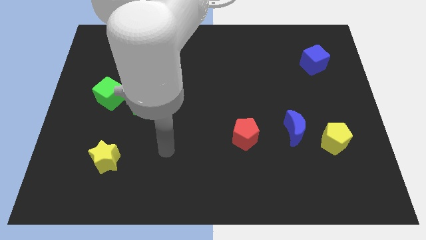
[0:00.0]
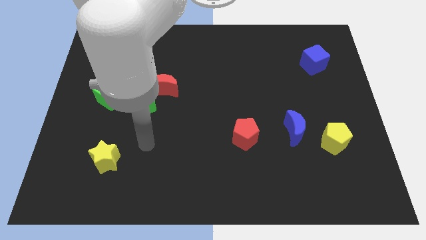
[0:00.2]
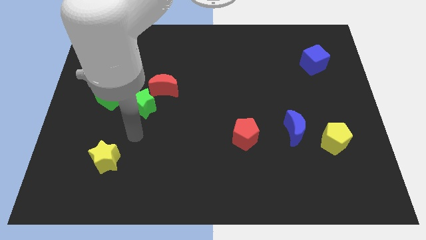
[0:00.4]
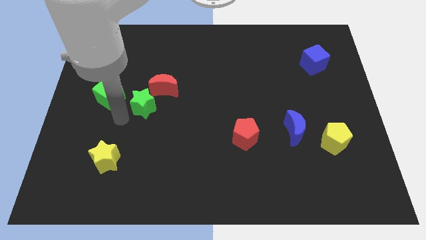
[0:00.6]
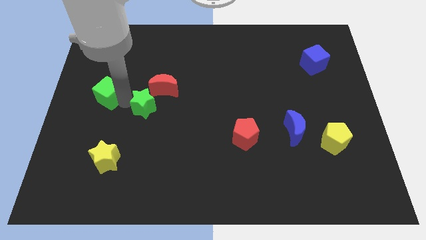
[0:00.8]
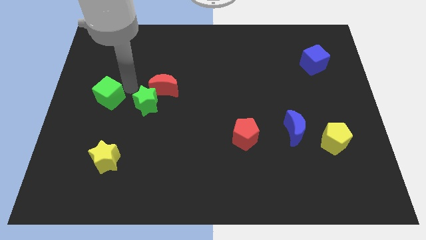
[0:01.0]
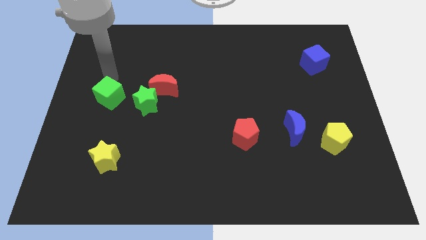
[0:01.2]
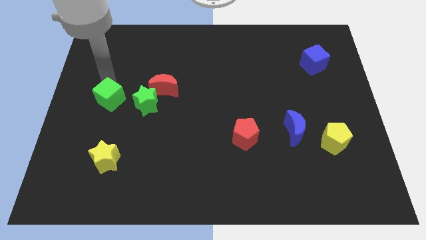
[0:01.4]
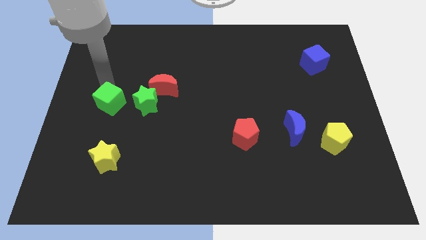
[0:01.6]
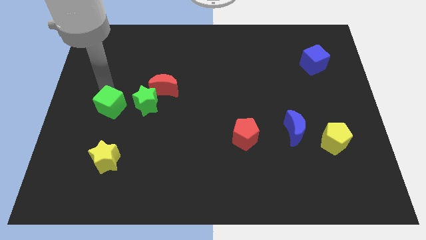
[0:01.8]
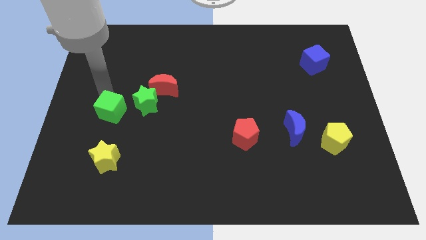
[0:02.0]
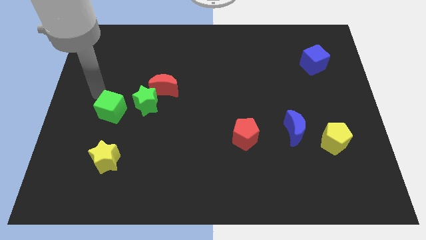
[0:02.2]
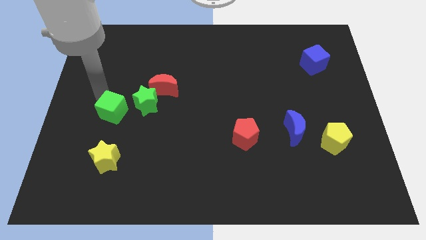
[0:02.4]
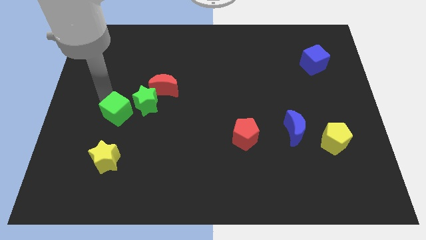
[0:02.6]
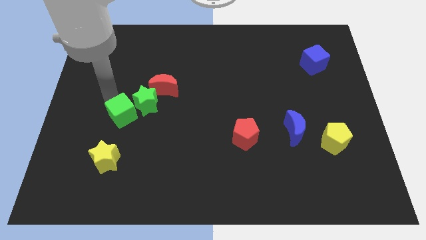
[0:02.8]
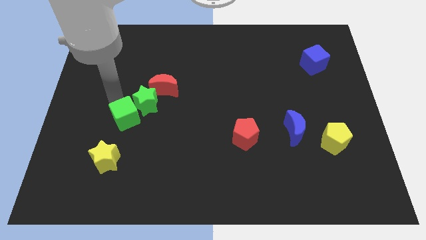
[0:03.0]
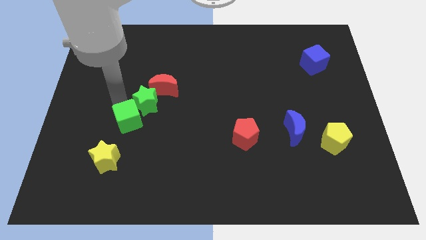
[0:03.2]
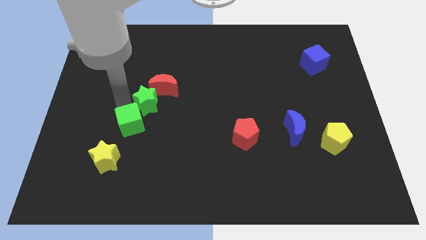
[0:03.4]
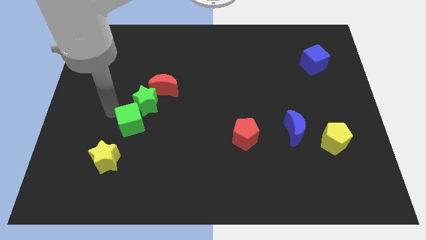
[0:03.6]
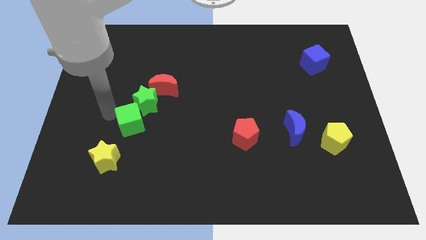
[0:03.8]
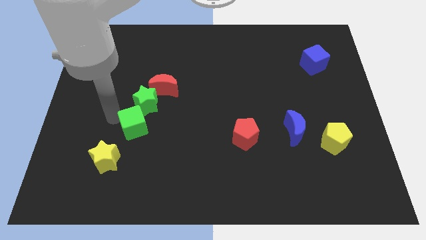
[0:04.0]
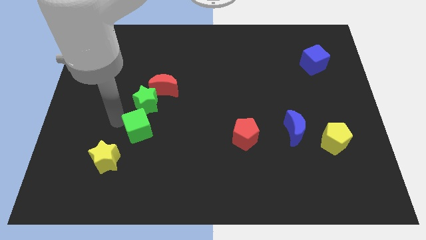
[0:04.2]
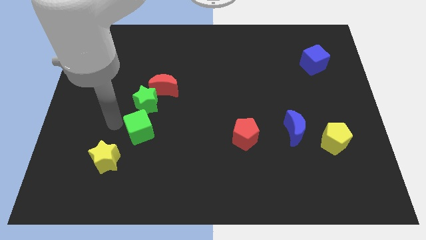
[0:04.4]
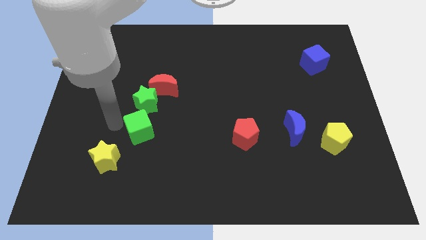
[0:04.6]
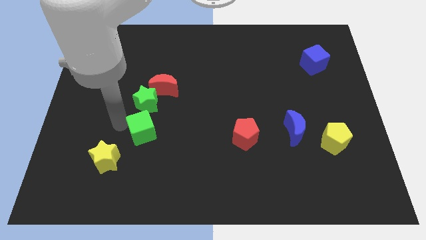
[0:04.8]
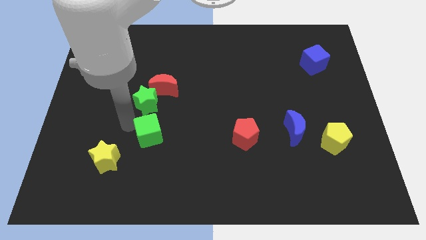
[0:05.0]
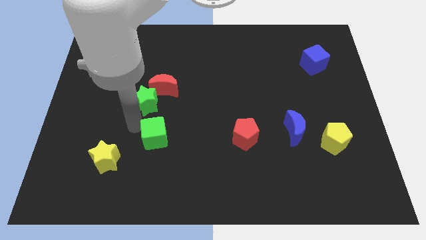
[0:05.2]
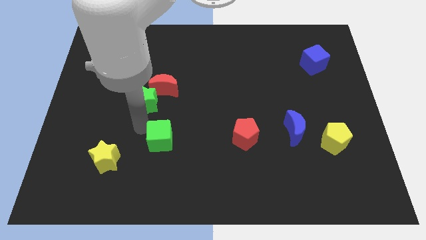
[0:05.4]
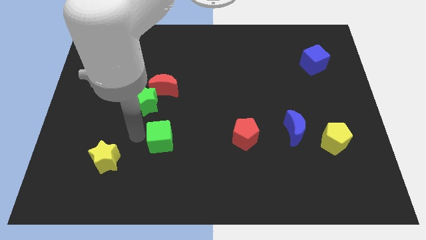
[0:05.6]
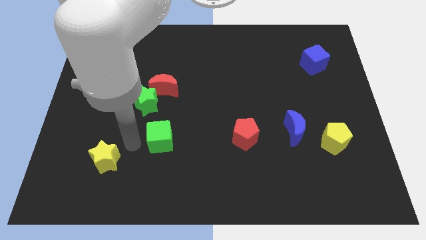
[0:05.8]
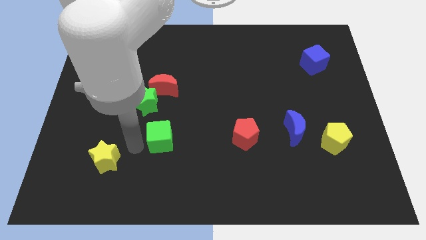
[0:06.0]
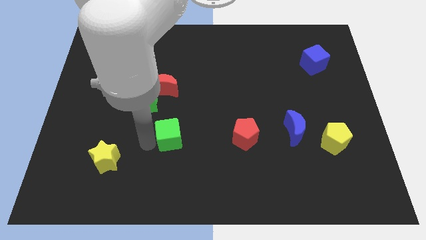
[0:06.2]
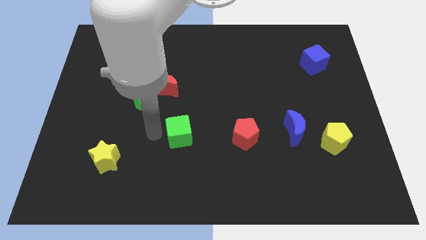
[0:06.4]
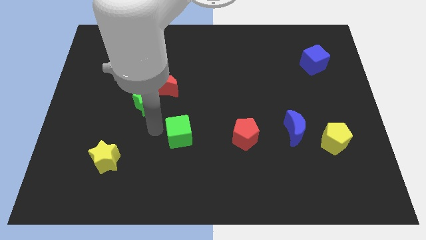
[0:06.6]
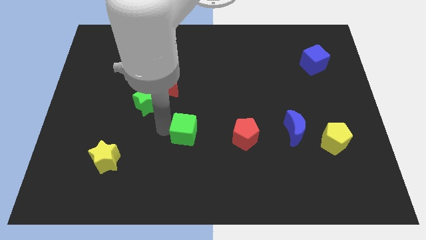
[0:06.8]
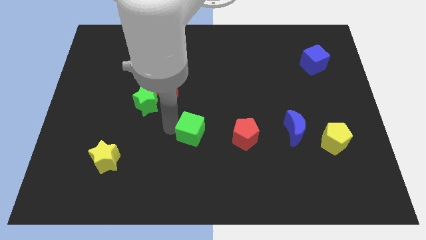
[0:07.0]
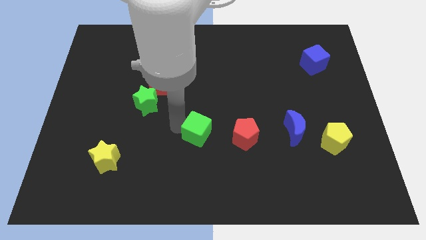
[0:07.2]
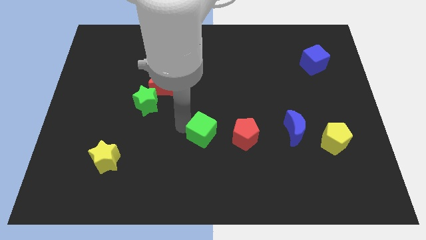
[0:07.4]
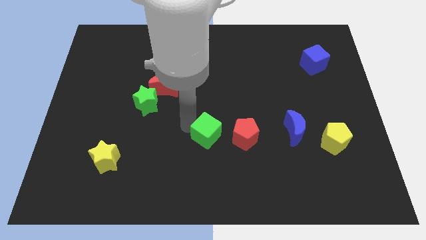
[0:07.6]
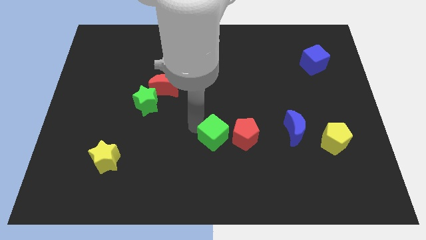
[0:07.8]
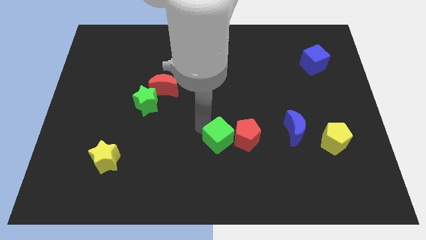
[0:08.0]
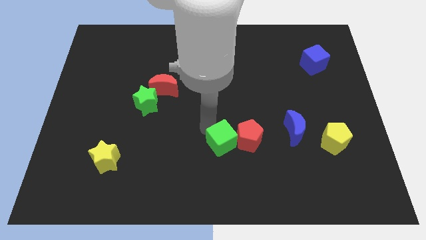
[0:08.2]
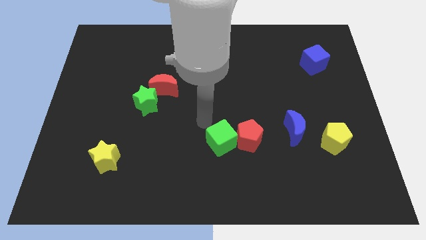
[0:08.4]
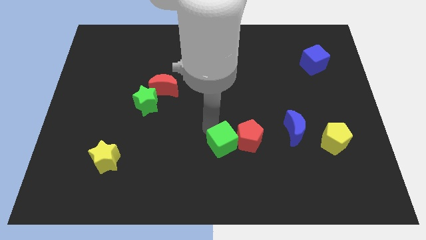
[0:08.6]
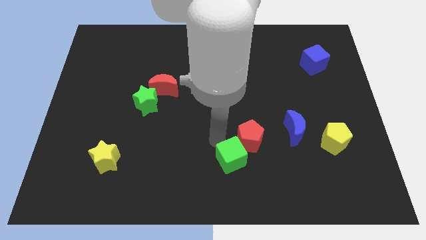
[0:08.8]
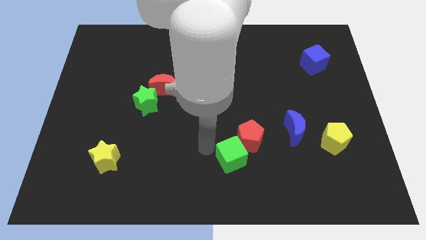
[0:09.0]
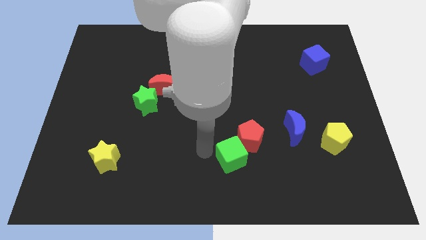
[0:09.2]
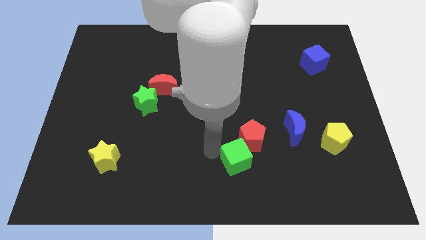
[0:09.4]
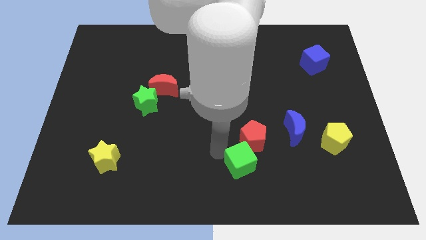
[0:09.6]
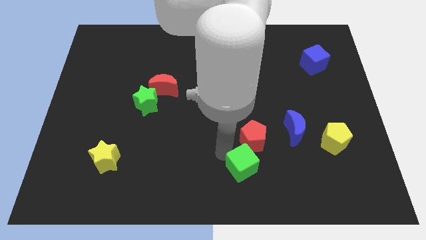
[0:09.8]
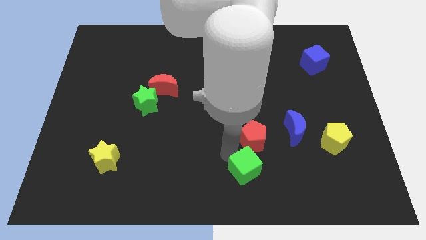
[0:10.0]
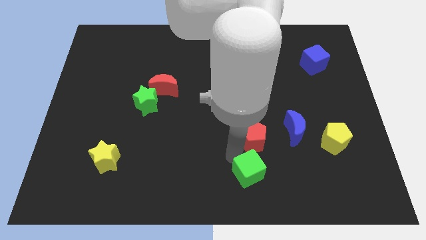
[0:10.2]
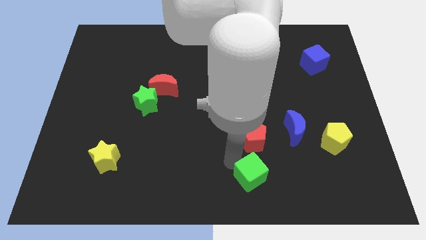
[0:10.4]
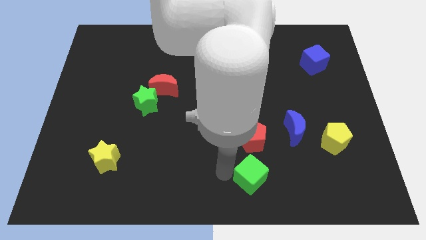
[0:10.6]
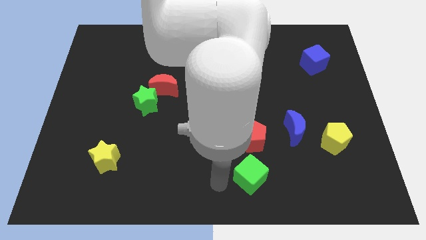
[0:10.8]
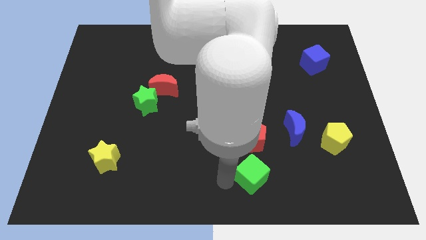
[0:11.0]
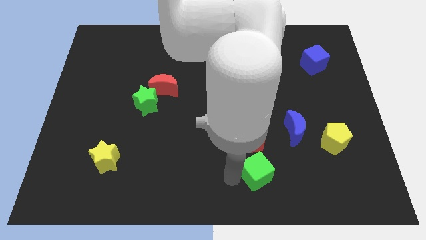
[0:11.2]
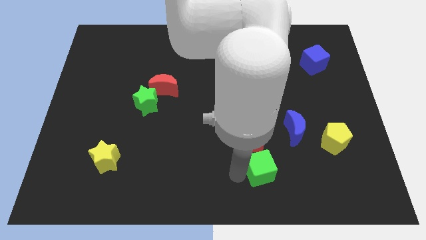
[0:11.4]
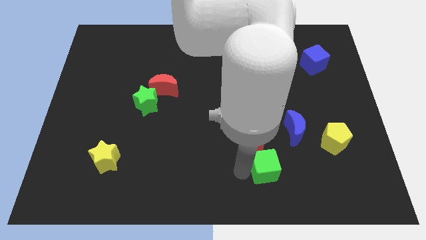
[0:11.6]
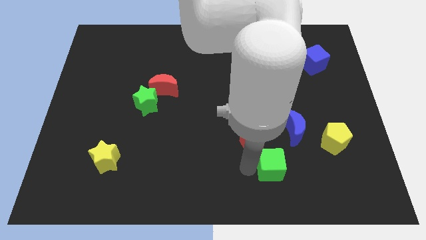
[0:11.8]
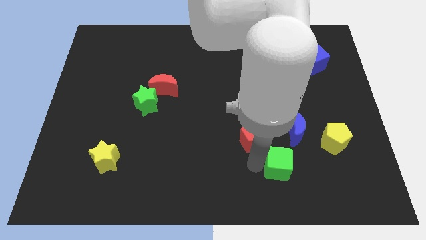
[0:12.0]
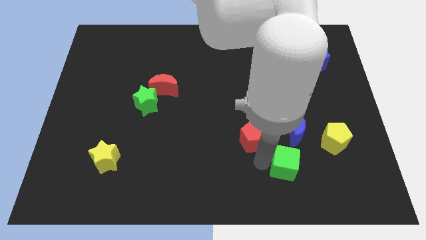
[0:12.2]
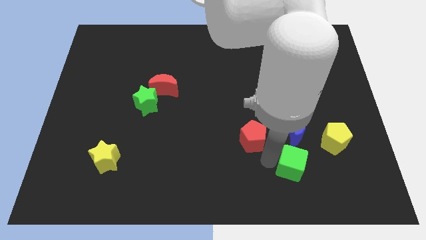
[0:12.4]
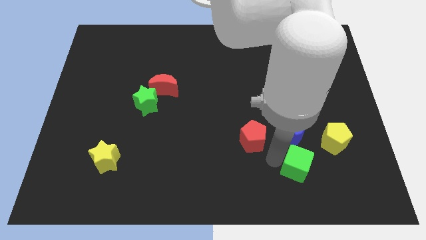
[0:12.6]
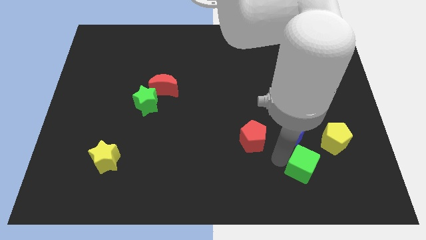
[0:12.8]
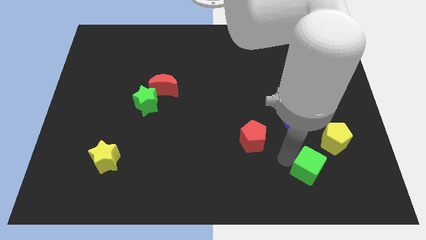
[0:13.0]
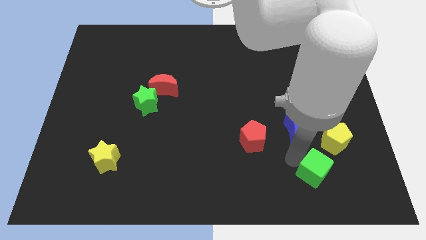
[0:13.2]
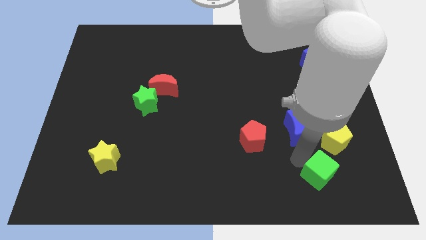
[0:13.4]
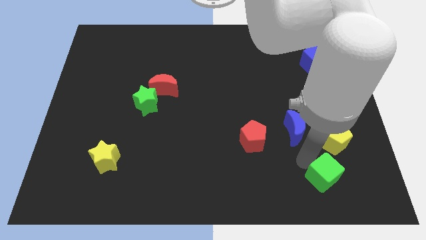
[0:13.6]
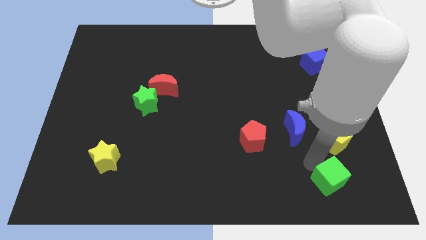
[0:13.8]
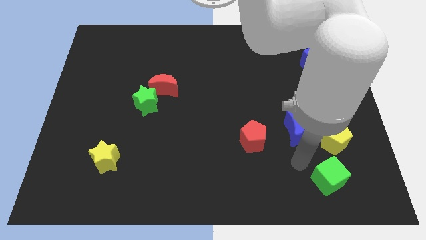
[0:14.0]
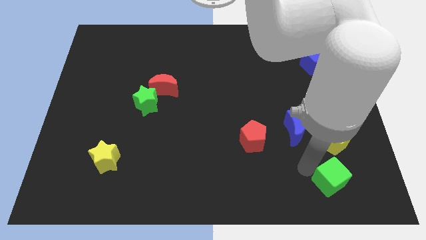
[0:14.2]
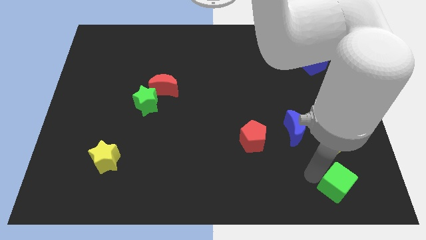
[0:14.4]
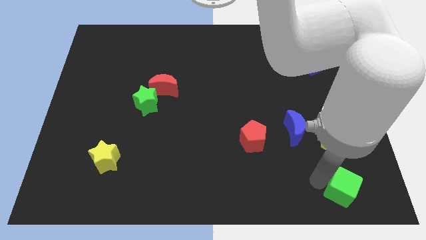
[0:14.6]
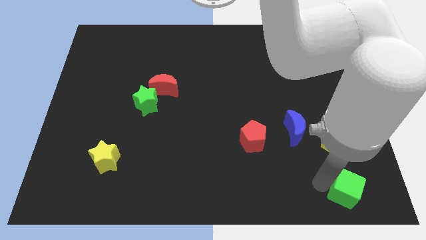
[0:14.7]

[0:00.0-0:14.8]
slide the green cube to the bottom right of the board
